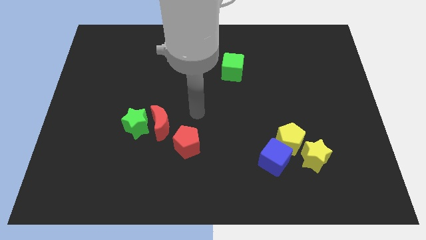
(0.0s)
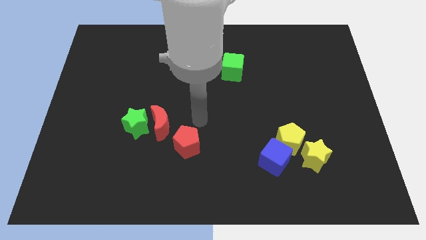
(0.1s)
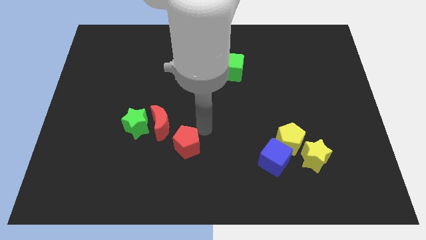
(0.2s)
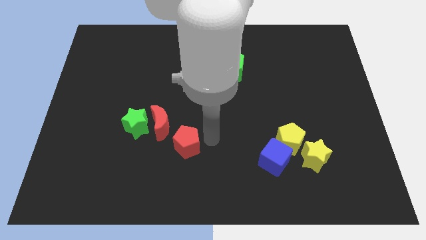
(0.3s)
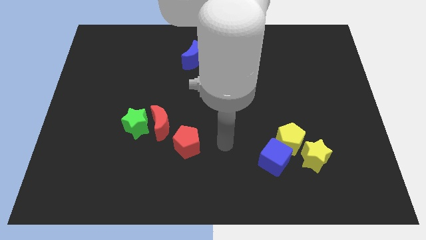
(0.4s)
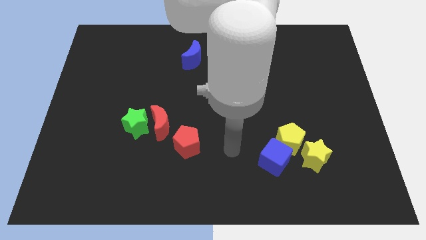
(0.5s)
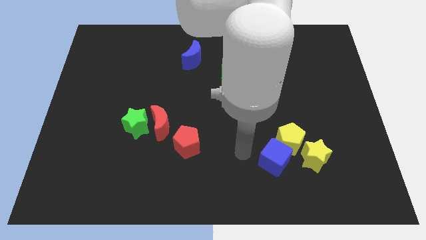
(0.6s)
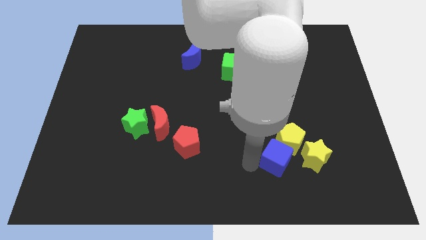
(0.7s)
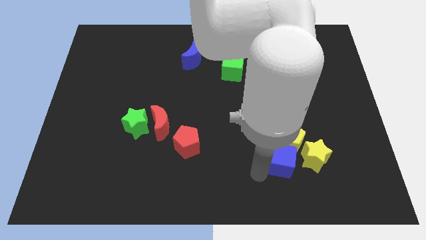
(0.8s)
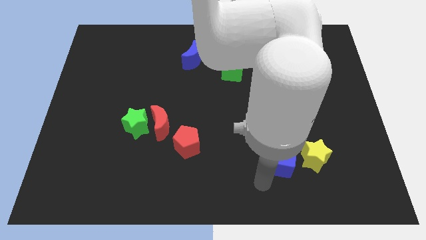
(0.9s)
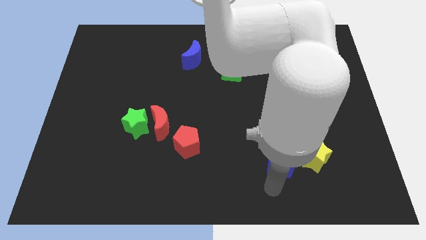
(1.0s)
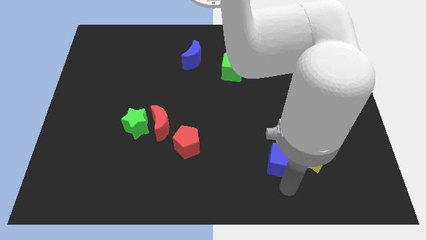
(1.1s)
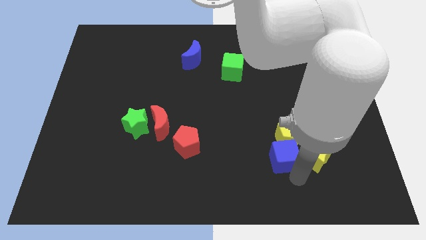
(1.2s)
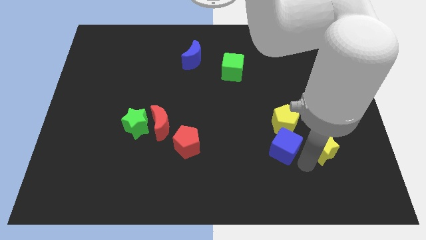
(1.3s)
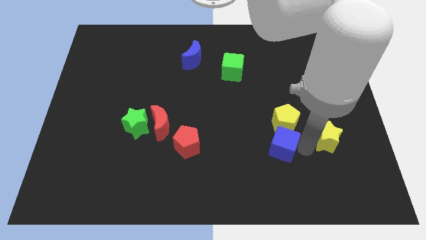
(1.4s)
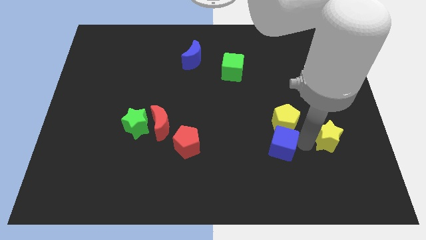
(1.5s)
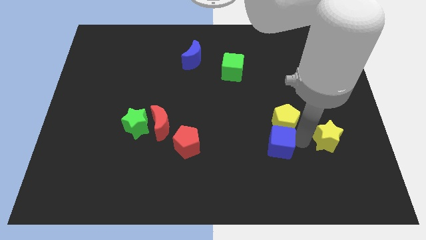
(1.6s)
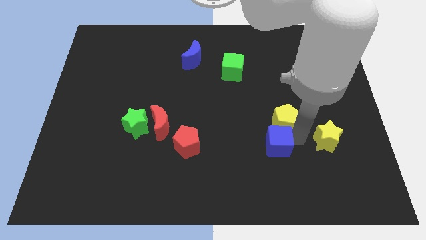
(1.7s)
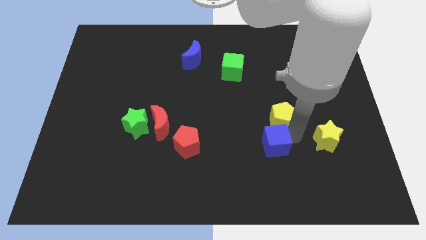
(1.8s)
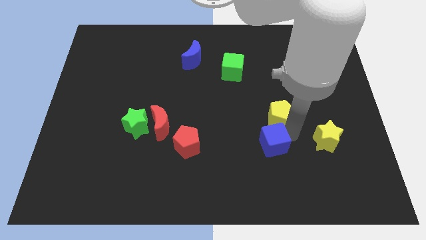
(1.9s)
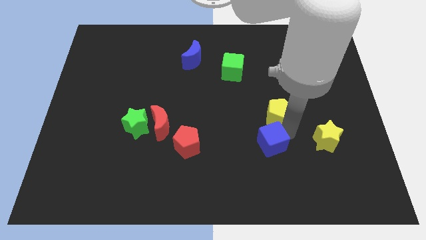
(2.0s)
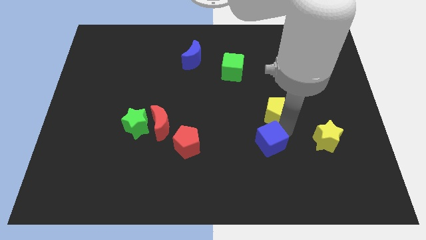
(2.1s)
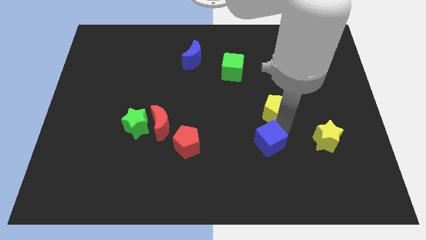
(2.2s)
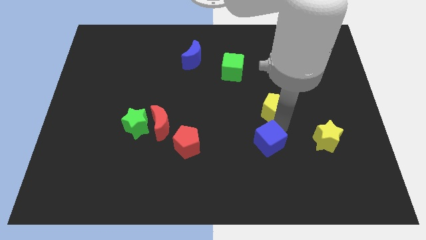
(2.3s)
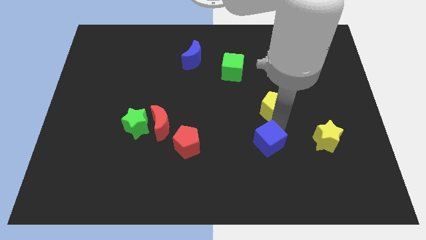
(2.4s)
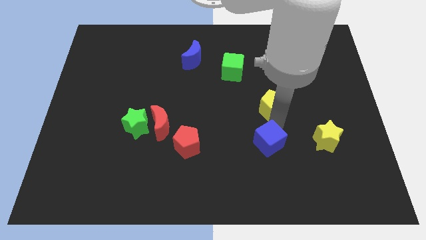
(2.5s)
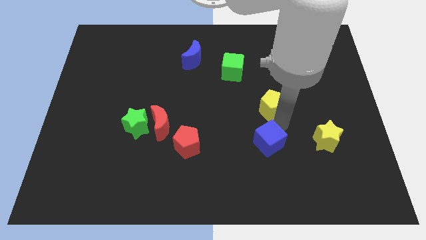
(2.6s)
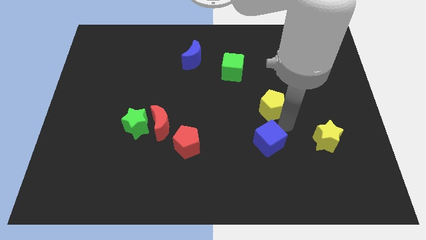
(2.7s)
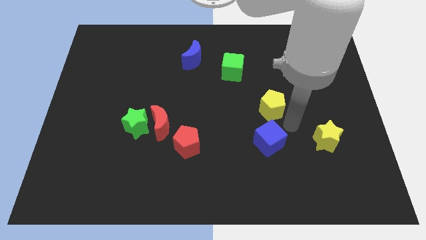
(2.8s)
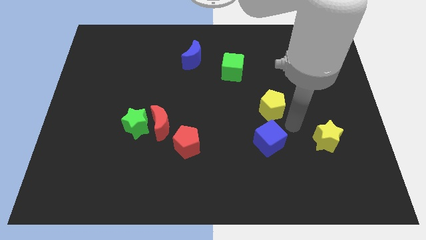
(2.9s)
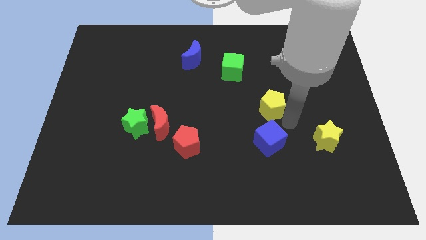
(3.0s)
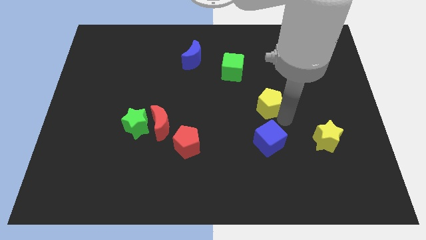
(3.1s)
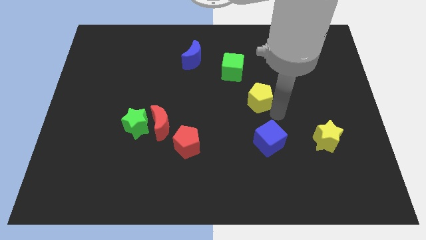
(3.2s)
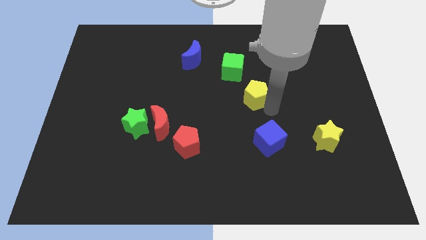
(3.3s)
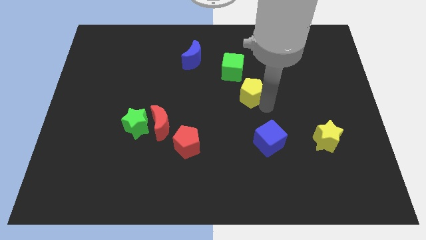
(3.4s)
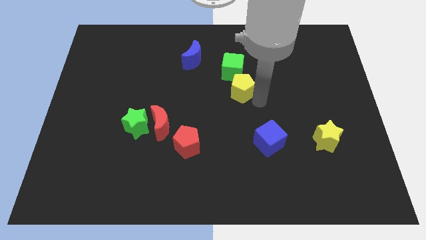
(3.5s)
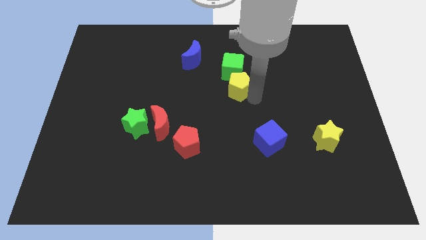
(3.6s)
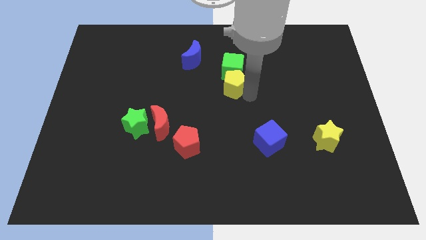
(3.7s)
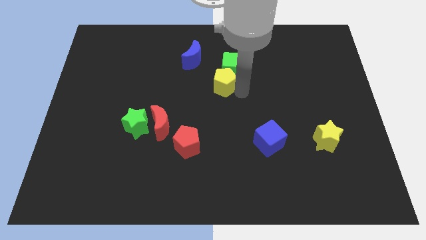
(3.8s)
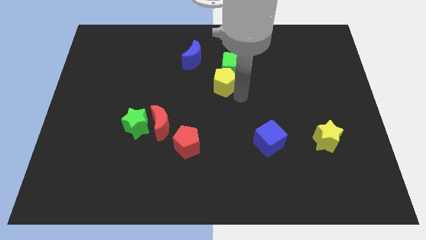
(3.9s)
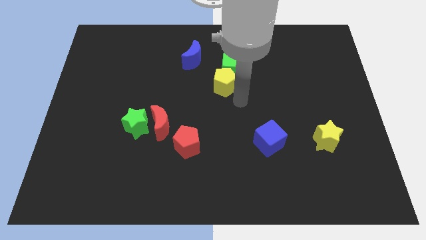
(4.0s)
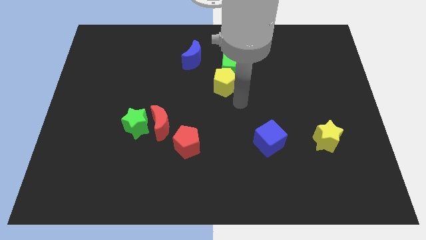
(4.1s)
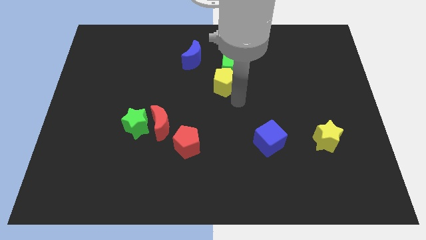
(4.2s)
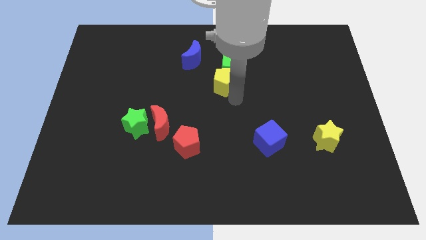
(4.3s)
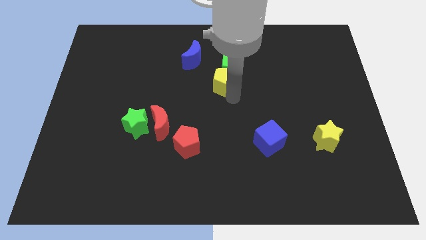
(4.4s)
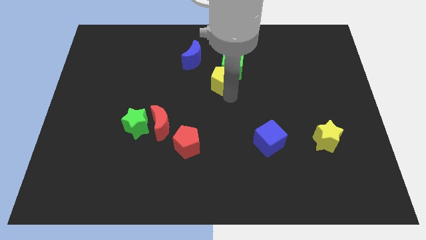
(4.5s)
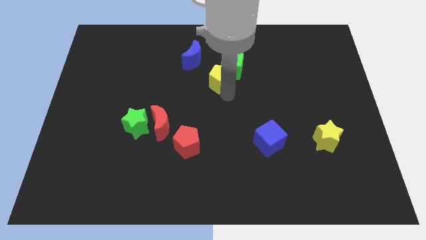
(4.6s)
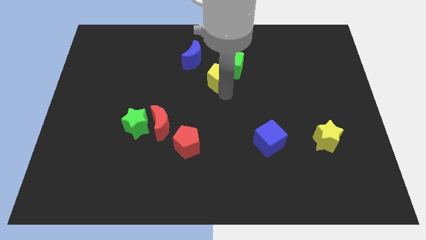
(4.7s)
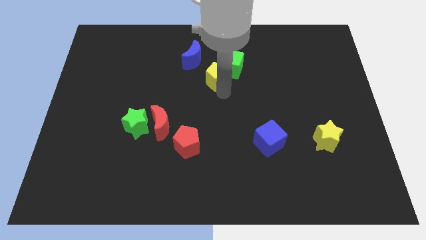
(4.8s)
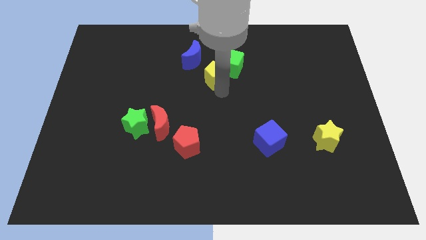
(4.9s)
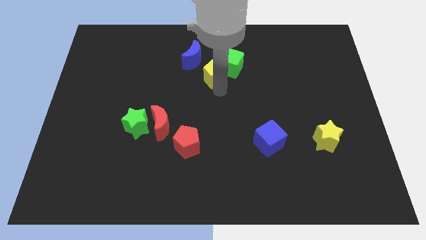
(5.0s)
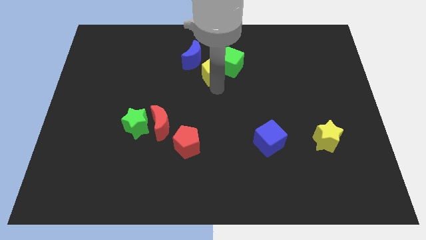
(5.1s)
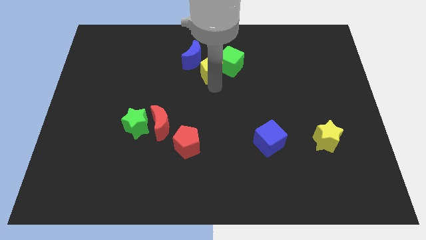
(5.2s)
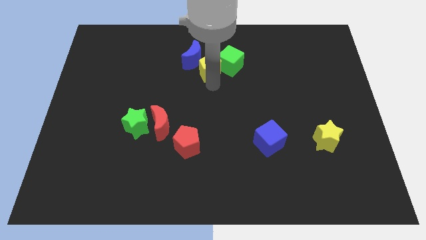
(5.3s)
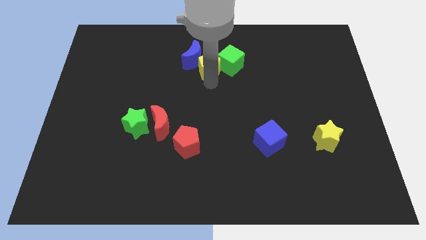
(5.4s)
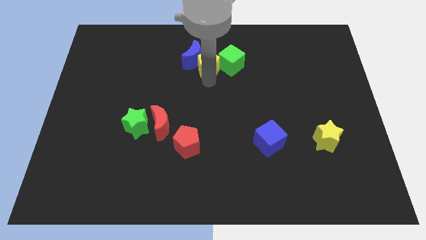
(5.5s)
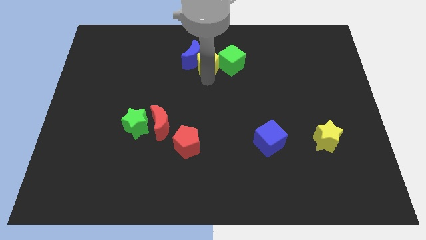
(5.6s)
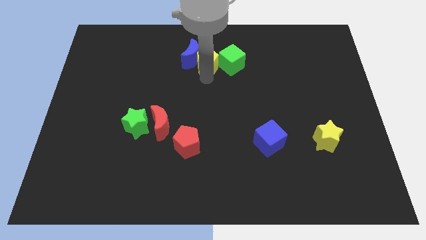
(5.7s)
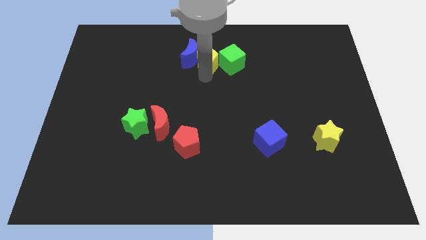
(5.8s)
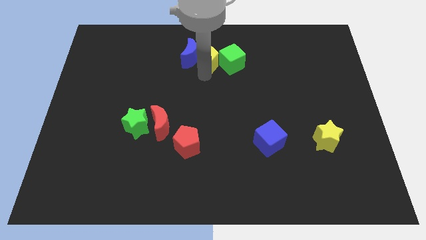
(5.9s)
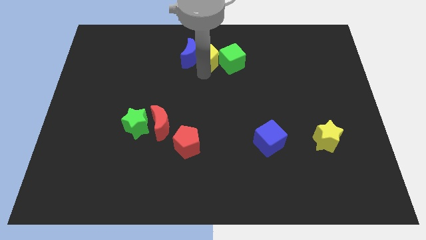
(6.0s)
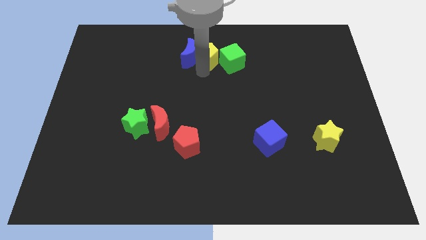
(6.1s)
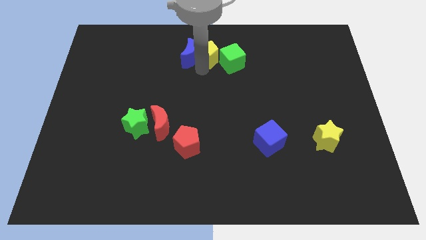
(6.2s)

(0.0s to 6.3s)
push the yellow pentagon to the top

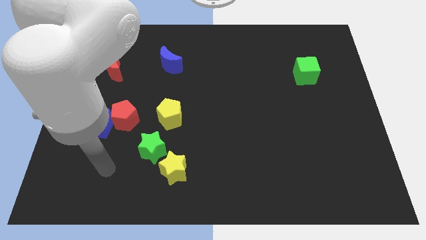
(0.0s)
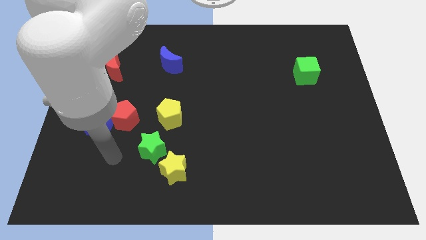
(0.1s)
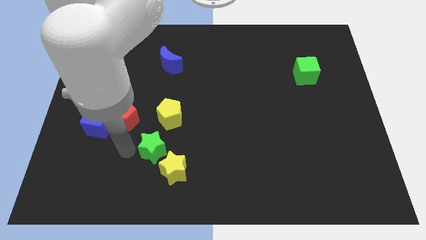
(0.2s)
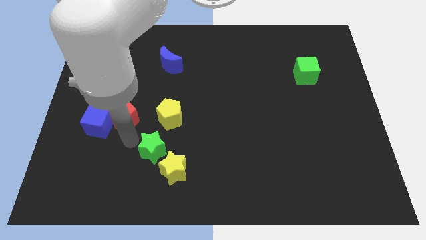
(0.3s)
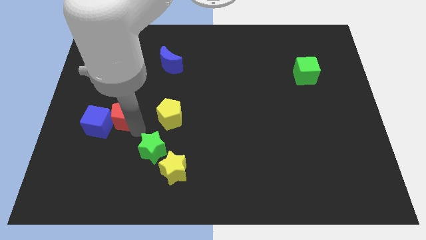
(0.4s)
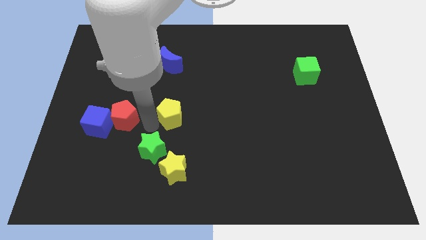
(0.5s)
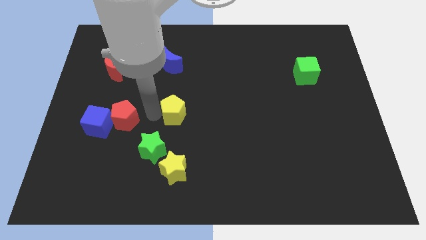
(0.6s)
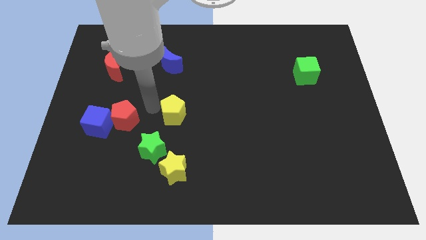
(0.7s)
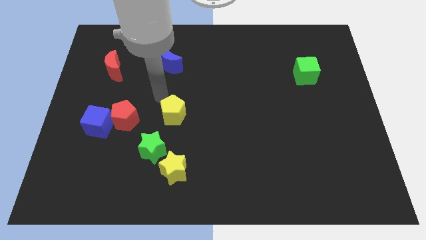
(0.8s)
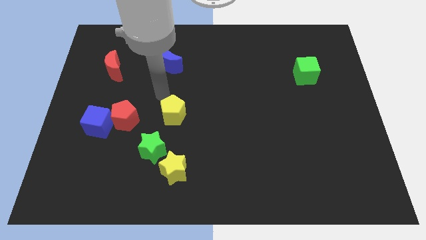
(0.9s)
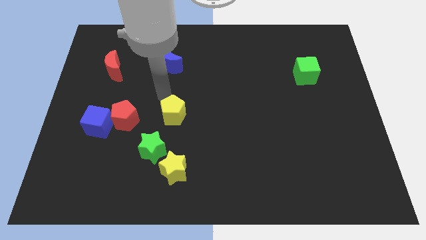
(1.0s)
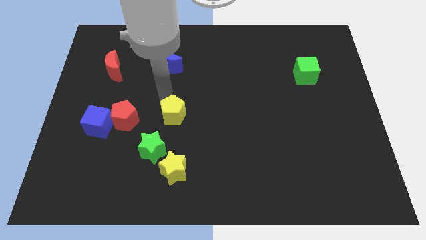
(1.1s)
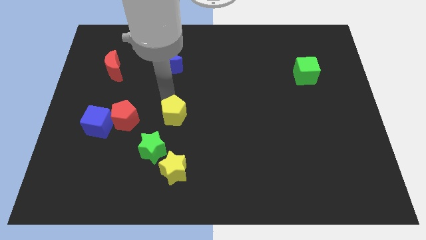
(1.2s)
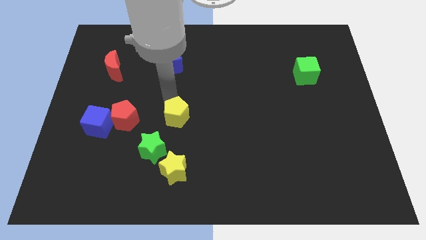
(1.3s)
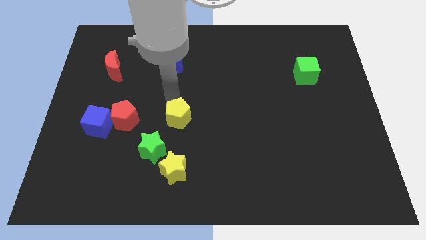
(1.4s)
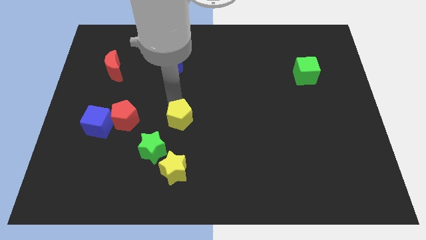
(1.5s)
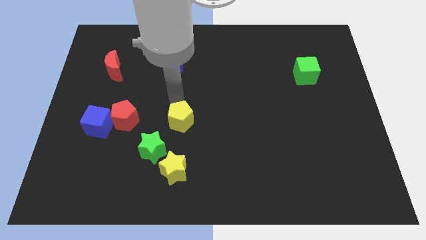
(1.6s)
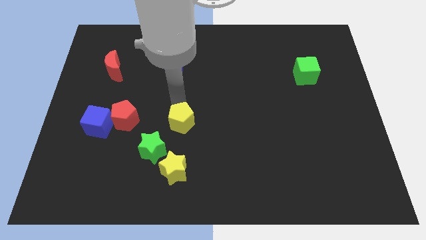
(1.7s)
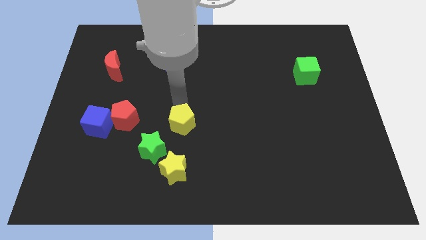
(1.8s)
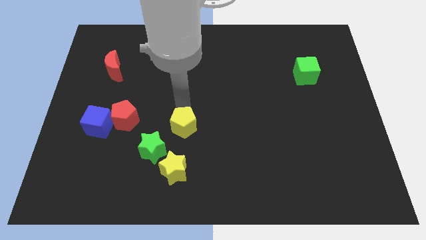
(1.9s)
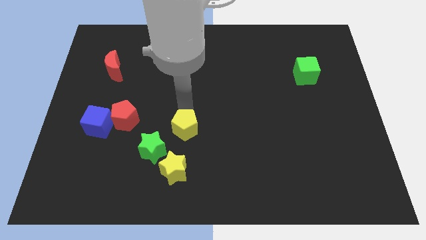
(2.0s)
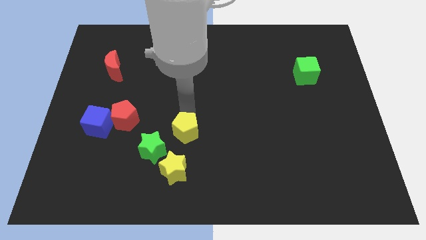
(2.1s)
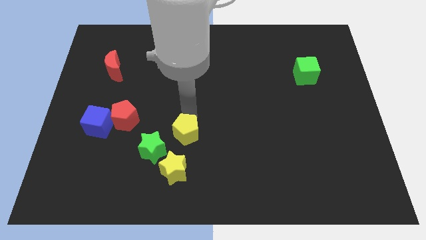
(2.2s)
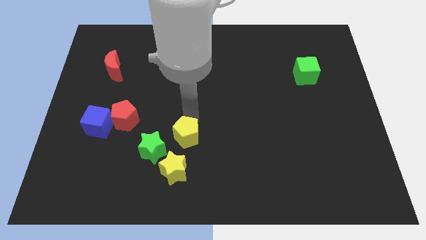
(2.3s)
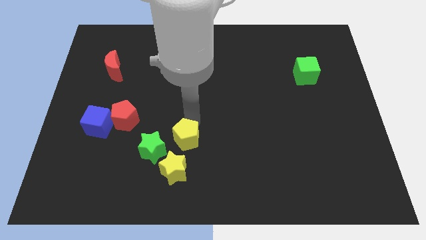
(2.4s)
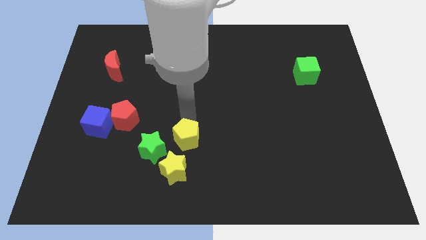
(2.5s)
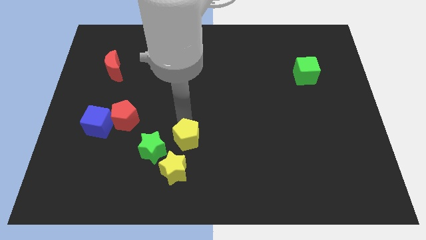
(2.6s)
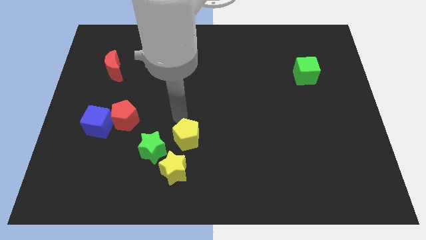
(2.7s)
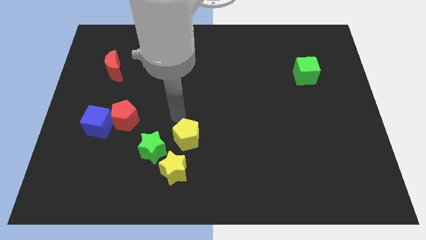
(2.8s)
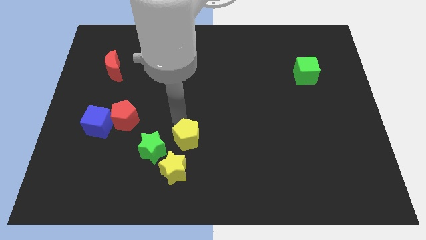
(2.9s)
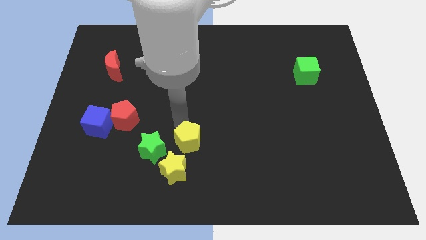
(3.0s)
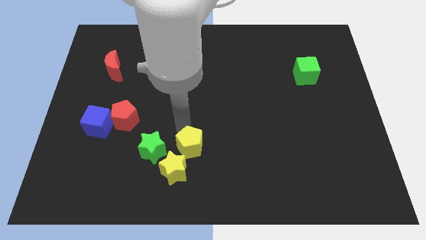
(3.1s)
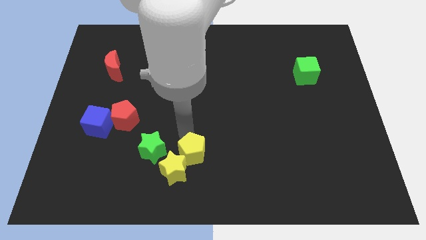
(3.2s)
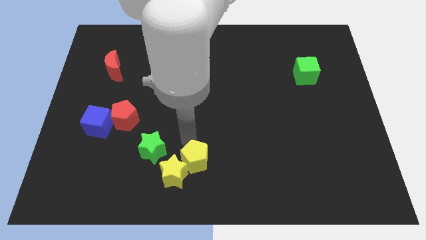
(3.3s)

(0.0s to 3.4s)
slide the yellow pentagon to the bottom side
